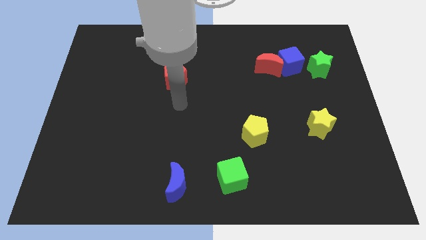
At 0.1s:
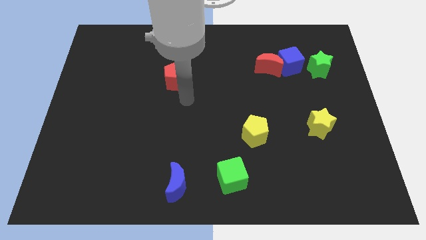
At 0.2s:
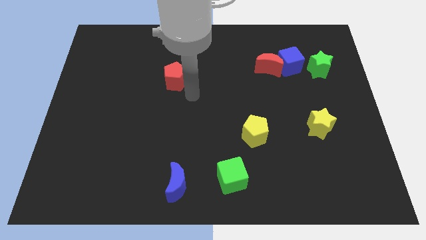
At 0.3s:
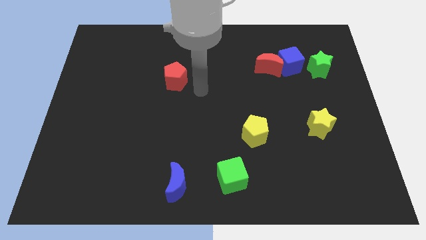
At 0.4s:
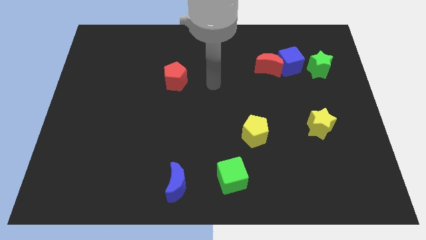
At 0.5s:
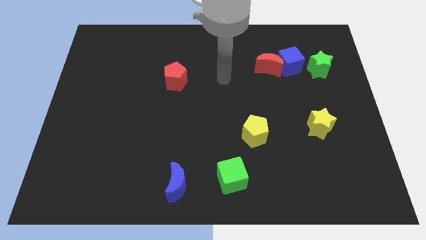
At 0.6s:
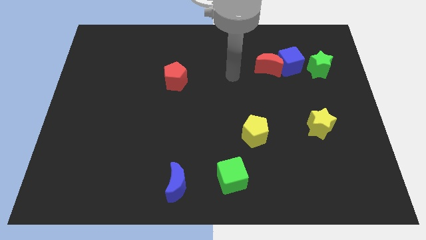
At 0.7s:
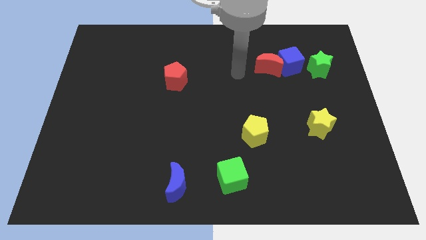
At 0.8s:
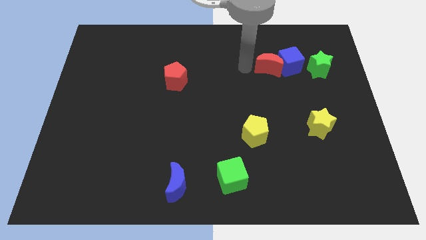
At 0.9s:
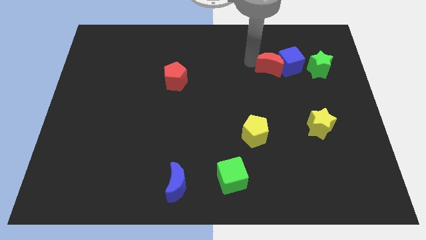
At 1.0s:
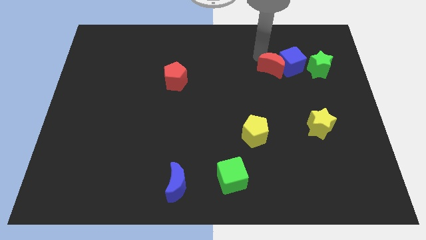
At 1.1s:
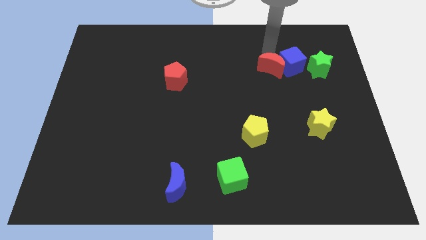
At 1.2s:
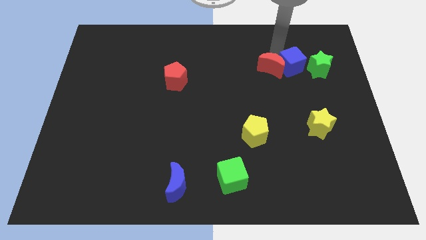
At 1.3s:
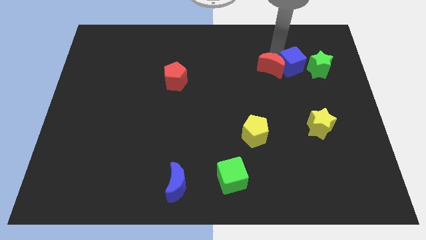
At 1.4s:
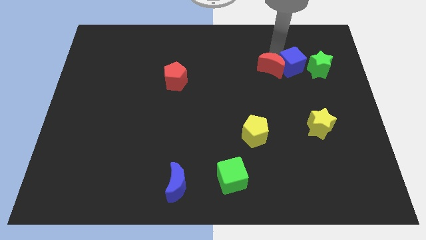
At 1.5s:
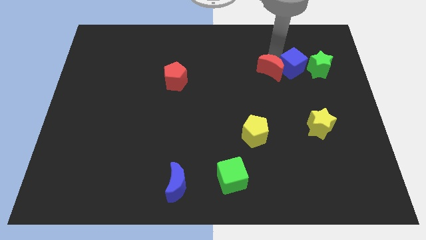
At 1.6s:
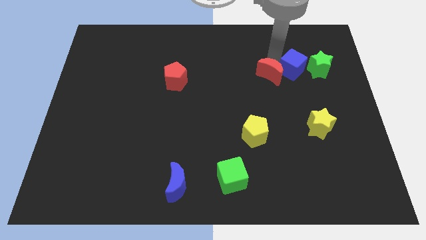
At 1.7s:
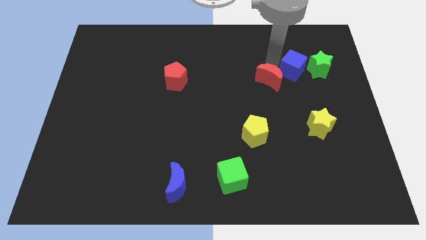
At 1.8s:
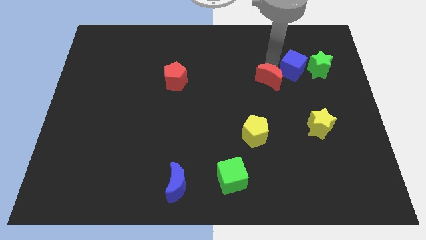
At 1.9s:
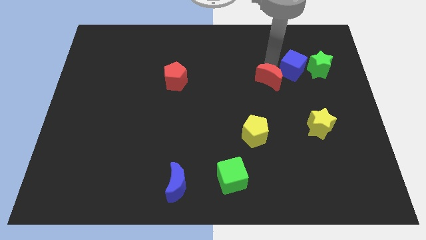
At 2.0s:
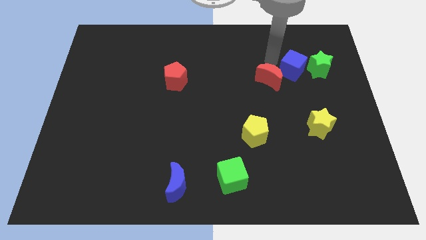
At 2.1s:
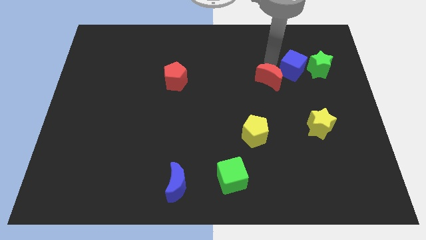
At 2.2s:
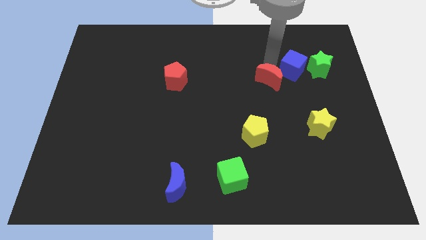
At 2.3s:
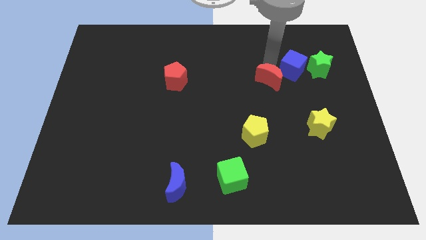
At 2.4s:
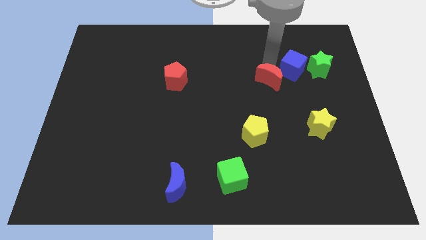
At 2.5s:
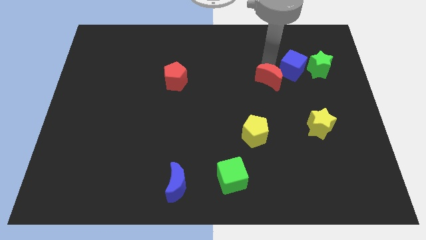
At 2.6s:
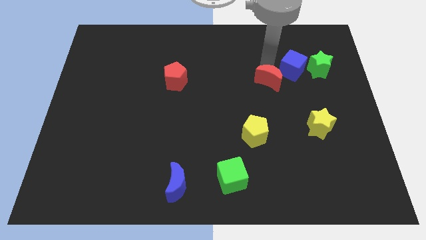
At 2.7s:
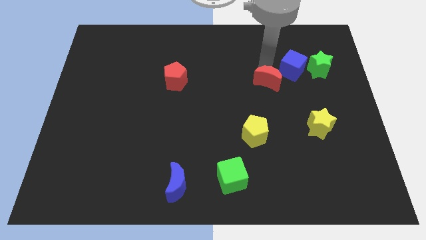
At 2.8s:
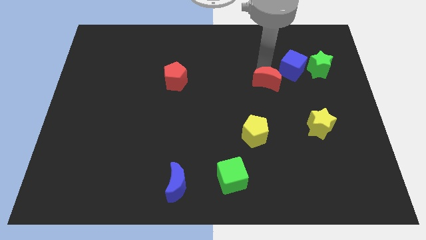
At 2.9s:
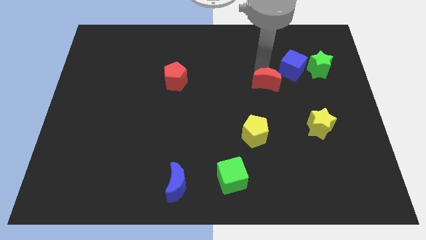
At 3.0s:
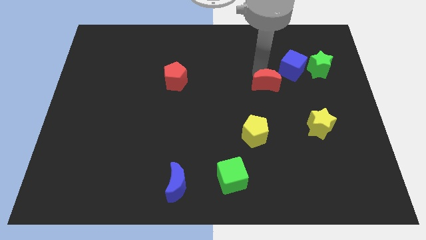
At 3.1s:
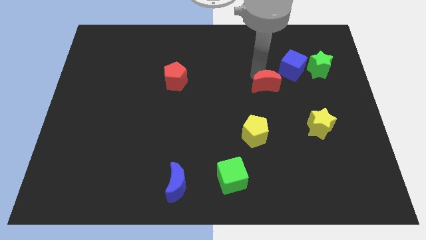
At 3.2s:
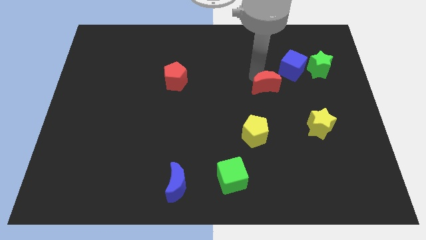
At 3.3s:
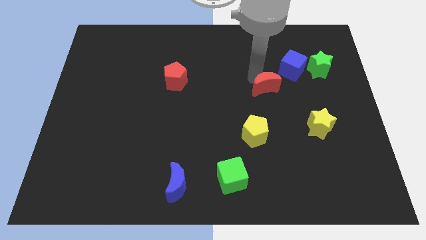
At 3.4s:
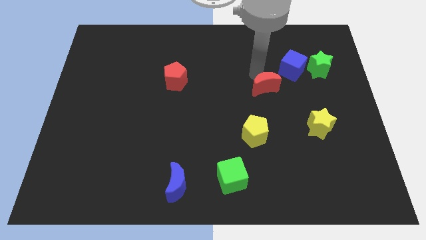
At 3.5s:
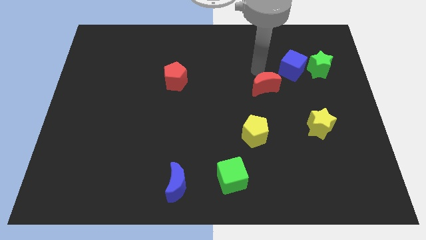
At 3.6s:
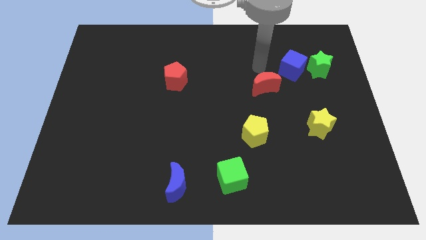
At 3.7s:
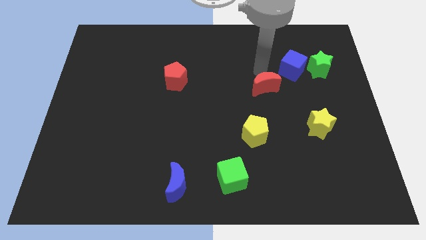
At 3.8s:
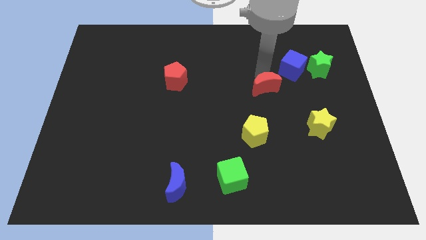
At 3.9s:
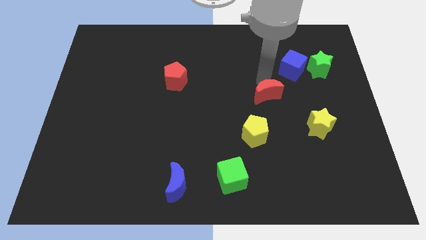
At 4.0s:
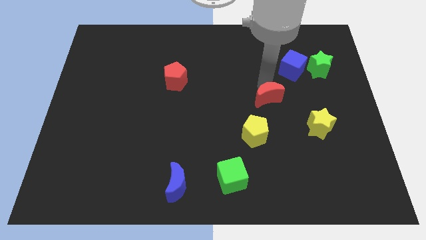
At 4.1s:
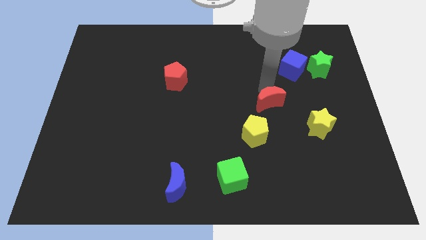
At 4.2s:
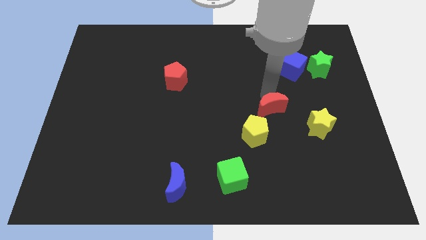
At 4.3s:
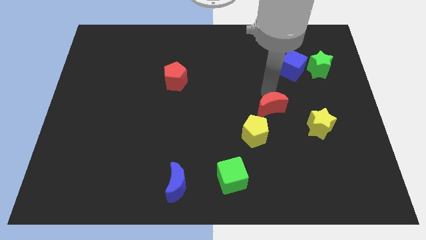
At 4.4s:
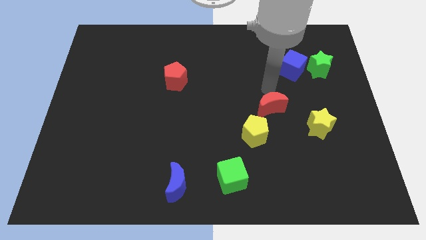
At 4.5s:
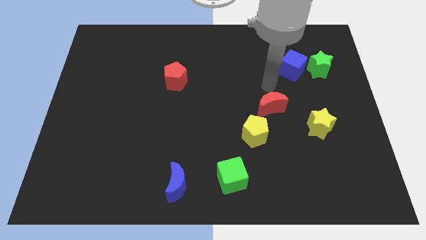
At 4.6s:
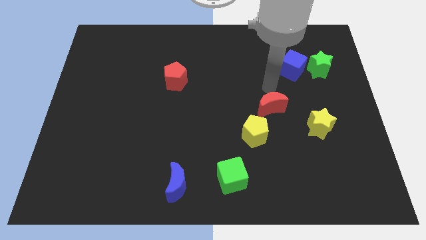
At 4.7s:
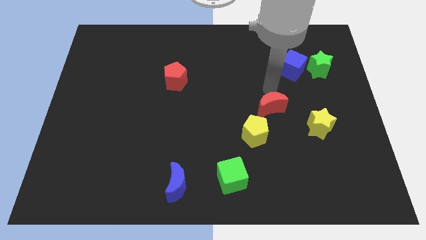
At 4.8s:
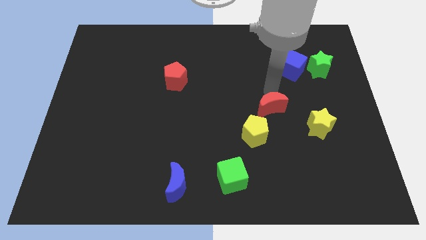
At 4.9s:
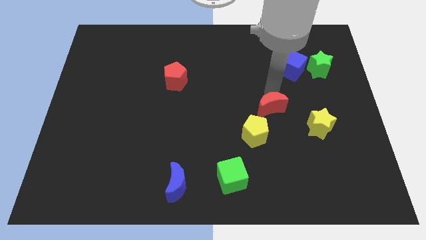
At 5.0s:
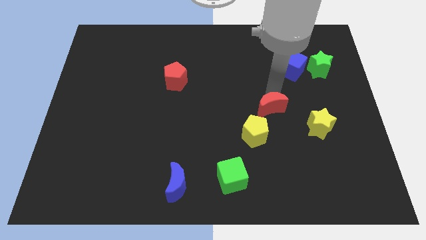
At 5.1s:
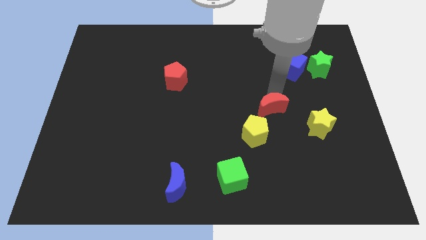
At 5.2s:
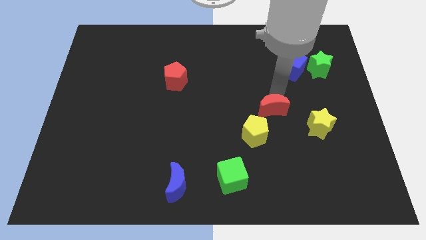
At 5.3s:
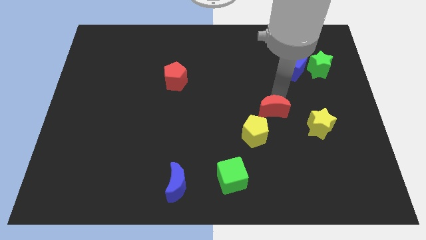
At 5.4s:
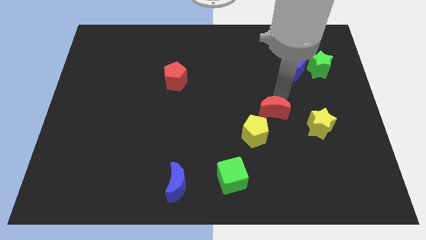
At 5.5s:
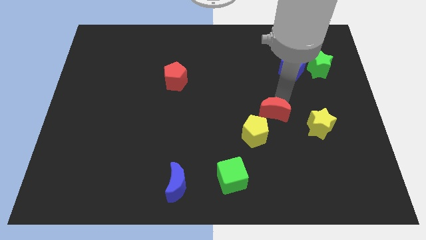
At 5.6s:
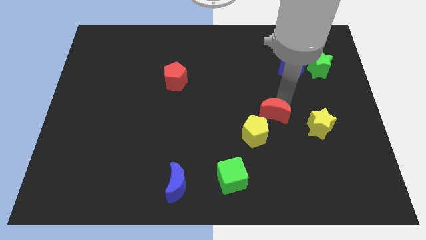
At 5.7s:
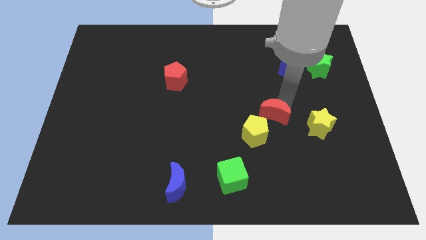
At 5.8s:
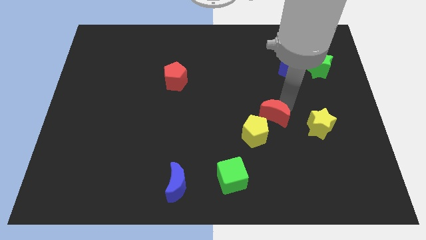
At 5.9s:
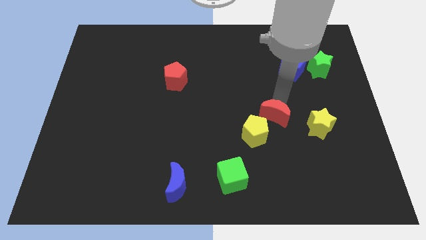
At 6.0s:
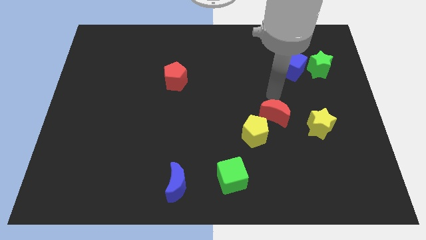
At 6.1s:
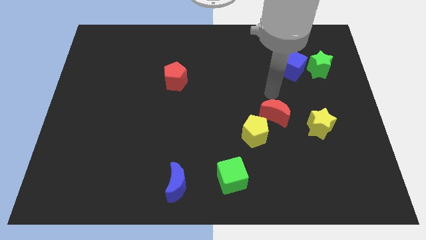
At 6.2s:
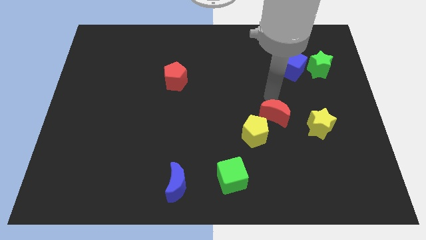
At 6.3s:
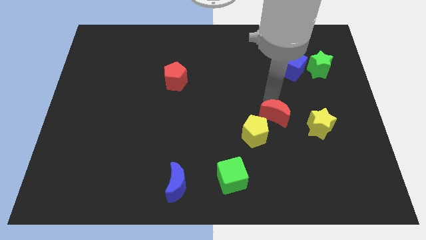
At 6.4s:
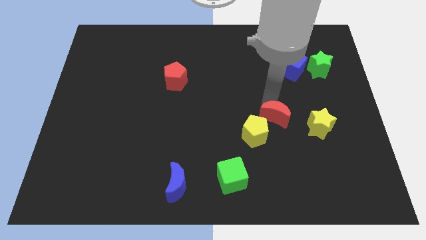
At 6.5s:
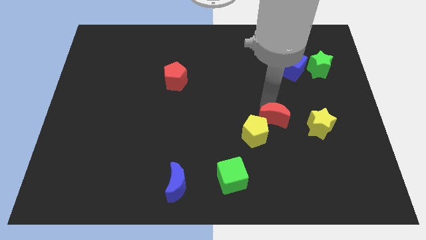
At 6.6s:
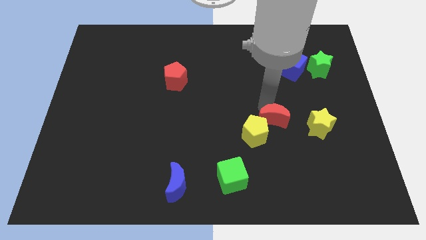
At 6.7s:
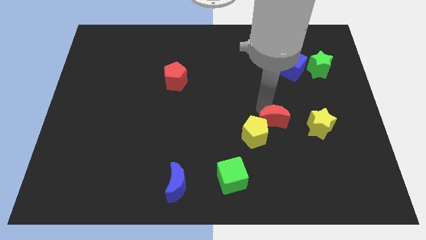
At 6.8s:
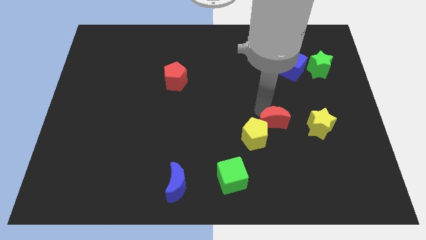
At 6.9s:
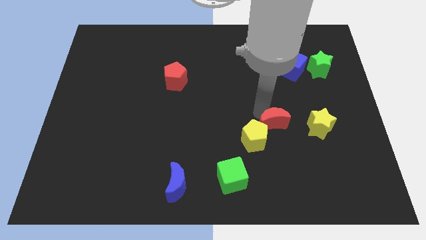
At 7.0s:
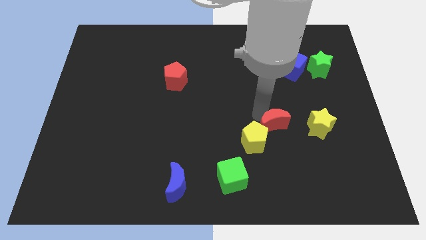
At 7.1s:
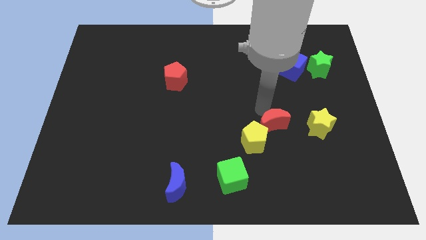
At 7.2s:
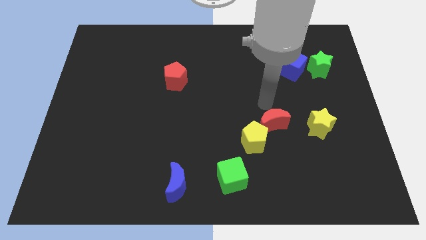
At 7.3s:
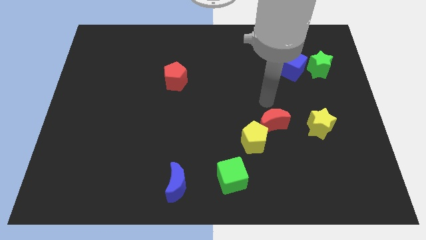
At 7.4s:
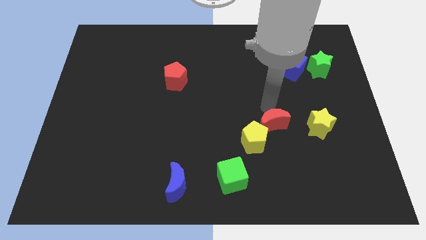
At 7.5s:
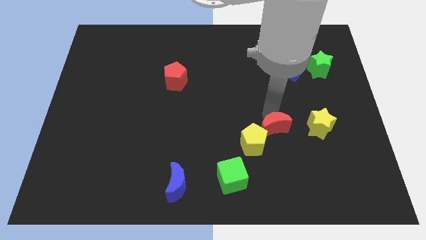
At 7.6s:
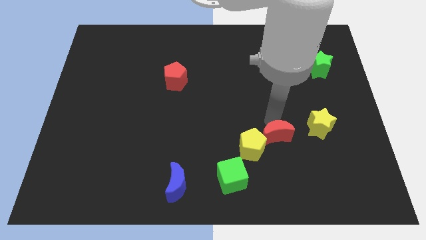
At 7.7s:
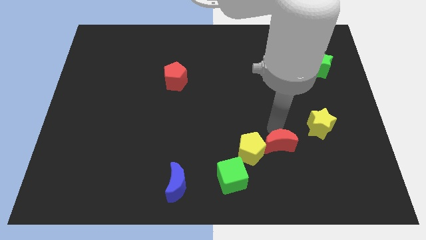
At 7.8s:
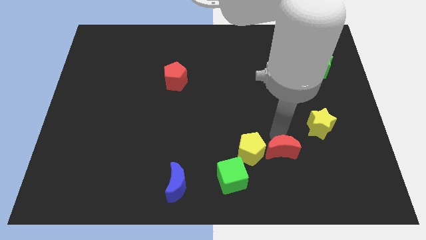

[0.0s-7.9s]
put the red moon to the bottom right of the yellow pentagon
